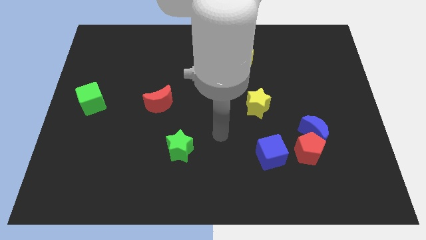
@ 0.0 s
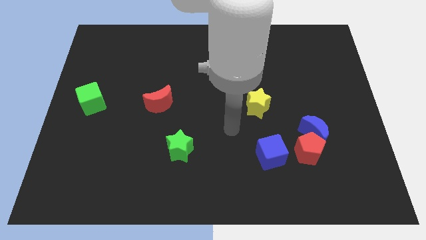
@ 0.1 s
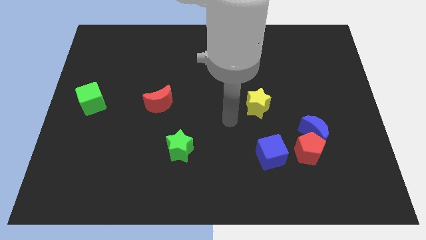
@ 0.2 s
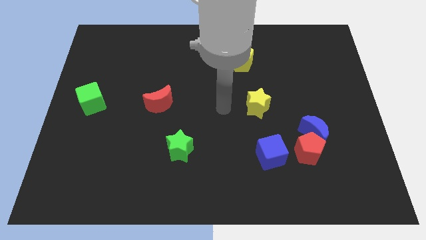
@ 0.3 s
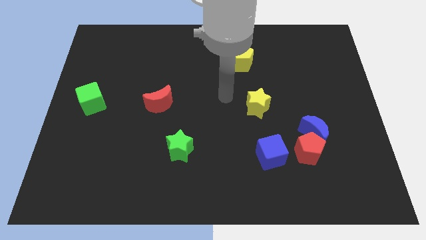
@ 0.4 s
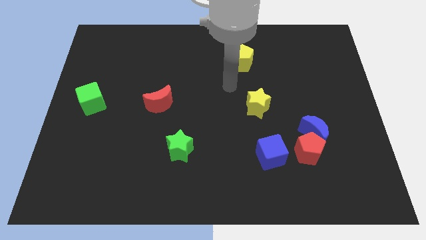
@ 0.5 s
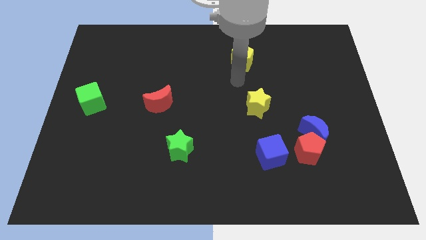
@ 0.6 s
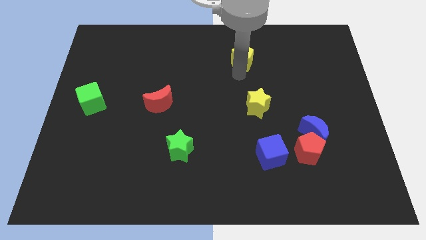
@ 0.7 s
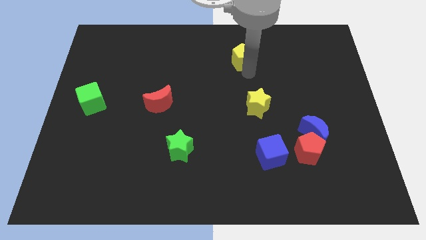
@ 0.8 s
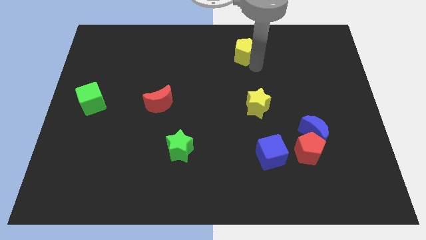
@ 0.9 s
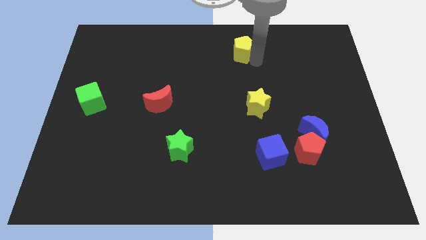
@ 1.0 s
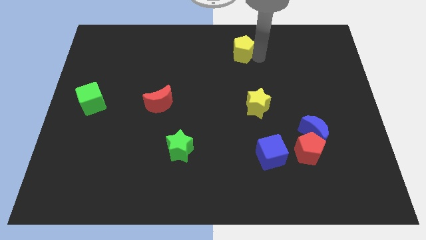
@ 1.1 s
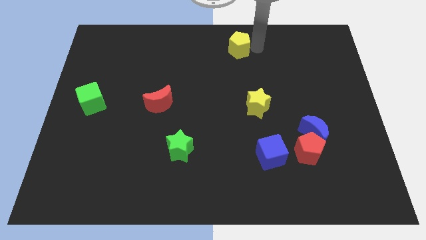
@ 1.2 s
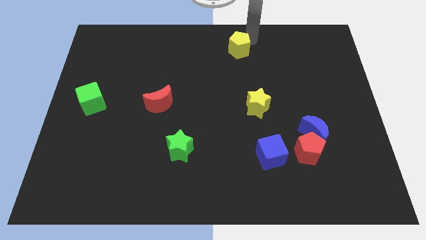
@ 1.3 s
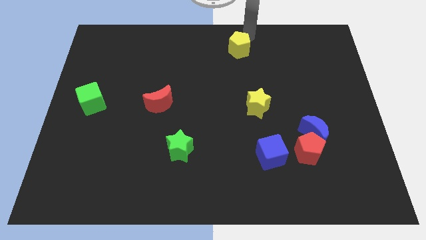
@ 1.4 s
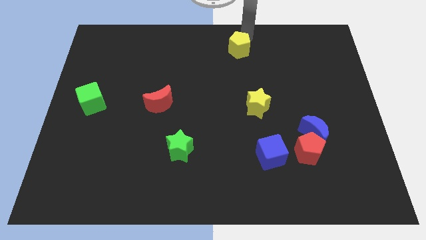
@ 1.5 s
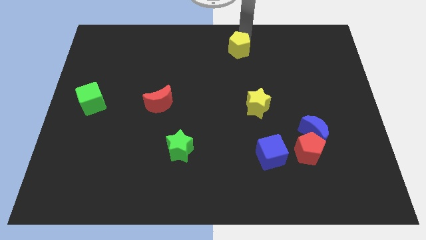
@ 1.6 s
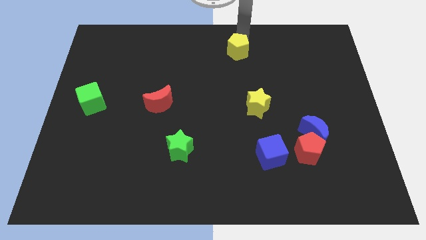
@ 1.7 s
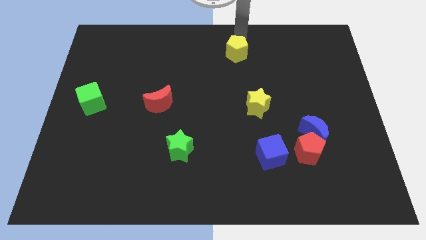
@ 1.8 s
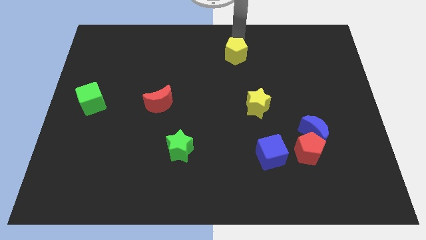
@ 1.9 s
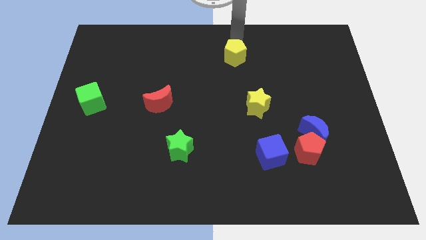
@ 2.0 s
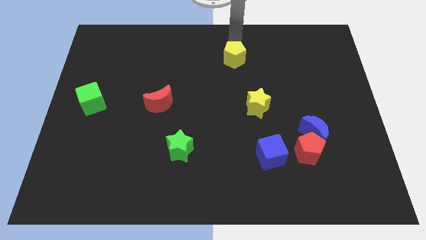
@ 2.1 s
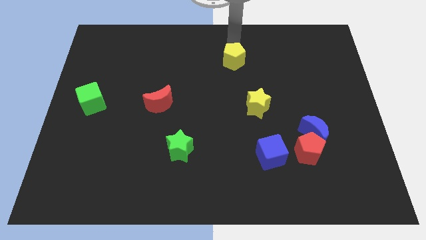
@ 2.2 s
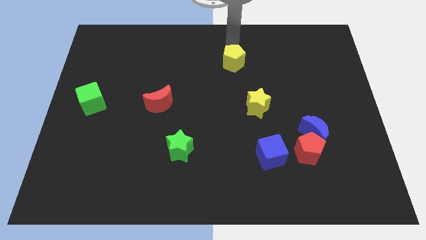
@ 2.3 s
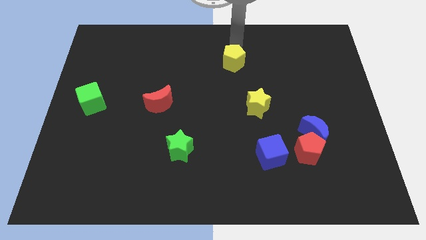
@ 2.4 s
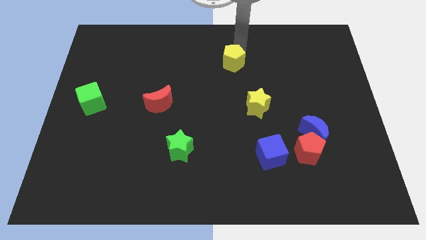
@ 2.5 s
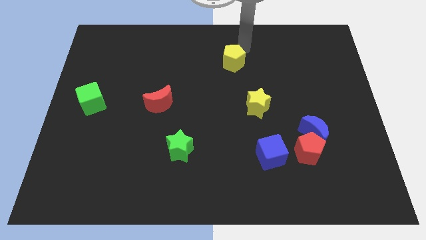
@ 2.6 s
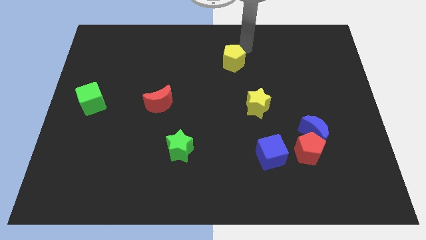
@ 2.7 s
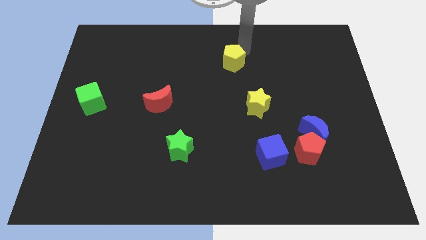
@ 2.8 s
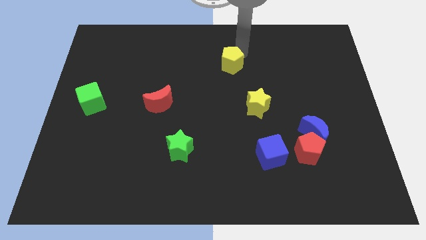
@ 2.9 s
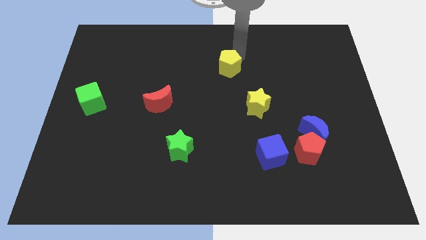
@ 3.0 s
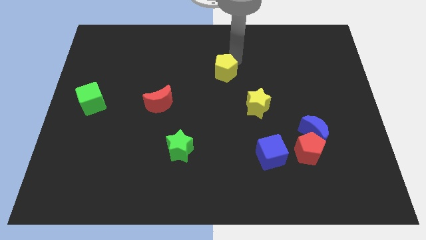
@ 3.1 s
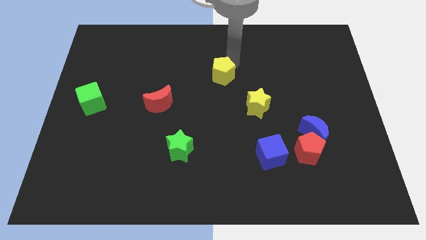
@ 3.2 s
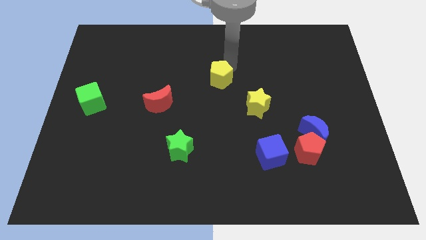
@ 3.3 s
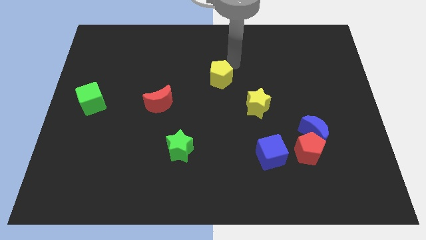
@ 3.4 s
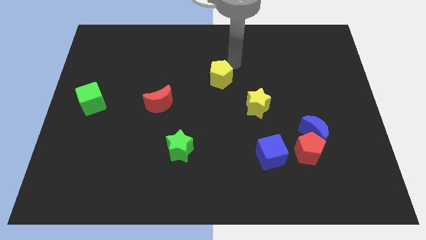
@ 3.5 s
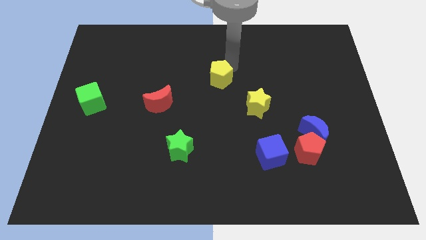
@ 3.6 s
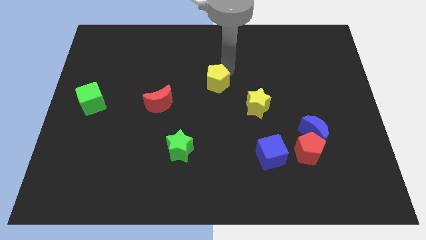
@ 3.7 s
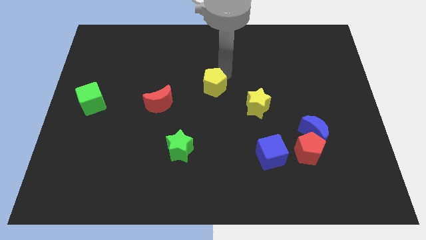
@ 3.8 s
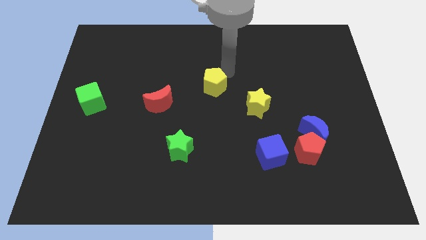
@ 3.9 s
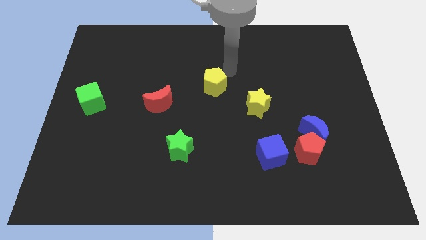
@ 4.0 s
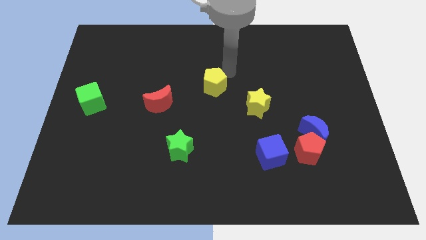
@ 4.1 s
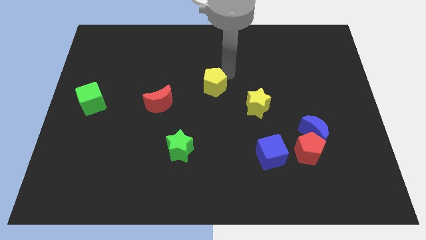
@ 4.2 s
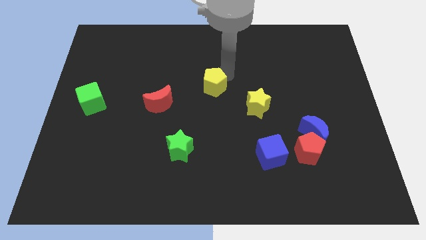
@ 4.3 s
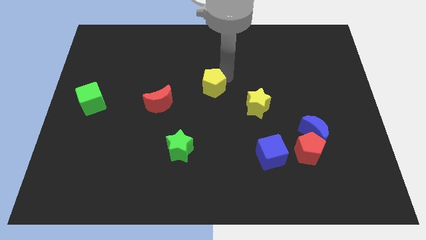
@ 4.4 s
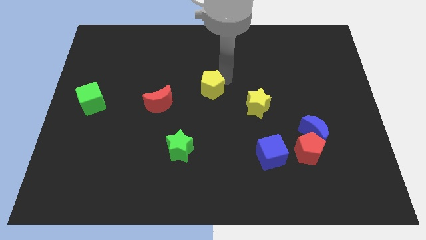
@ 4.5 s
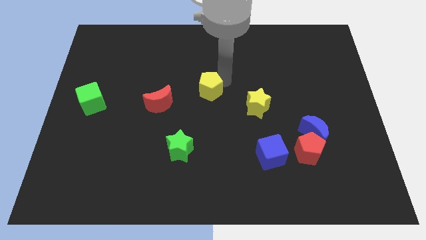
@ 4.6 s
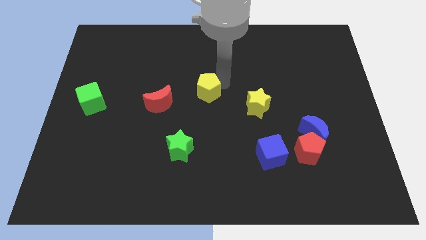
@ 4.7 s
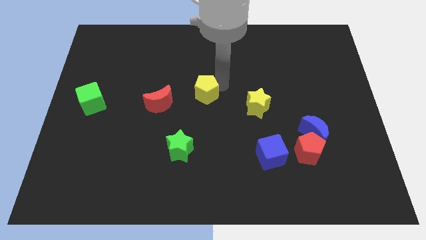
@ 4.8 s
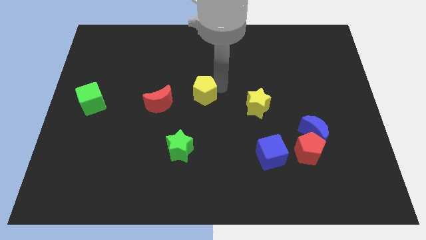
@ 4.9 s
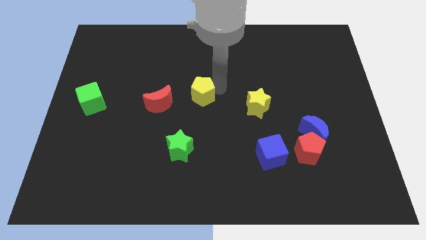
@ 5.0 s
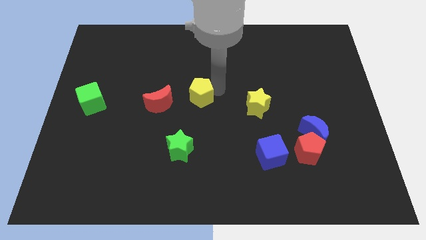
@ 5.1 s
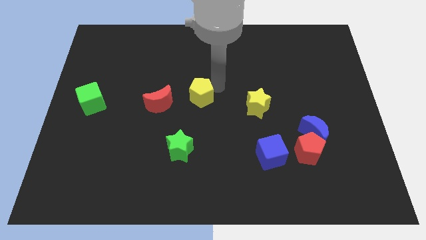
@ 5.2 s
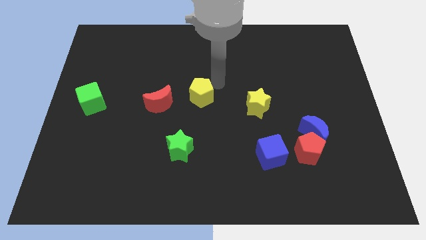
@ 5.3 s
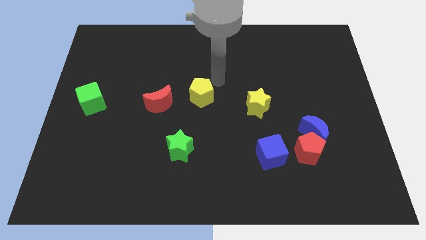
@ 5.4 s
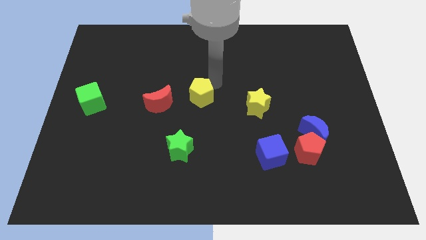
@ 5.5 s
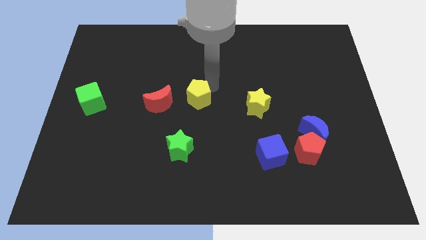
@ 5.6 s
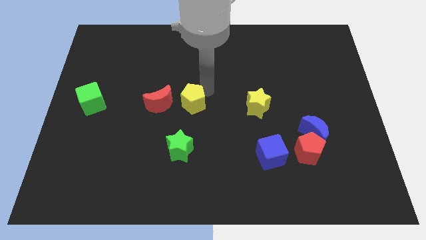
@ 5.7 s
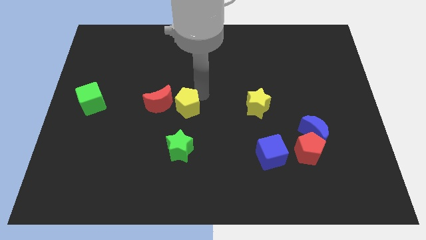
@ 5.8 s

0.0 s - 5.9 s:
slide the yellow pentagon downwards and to the left

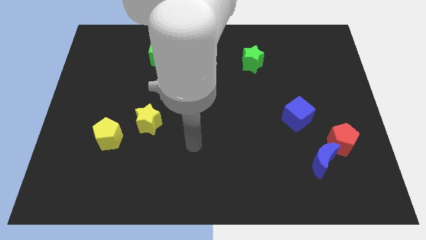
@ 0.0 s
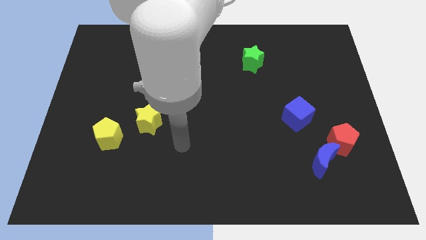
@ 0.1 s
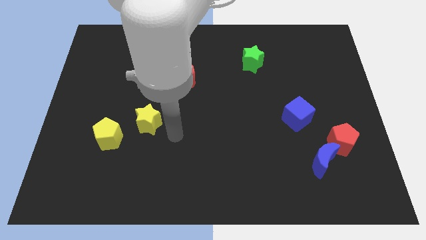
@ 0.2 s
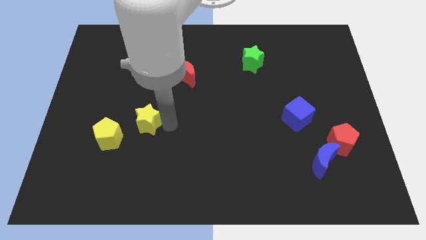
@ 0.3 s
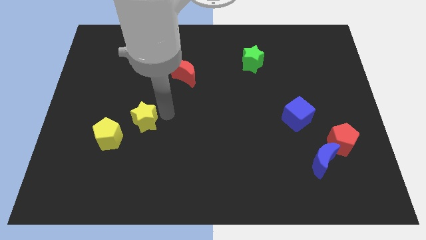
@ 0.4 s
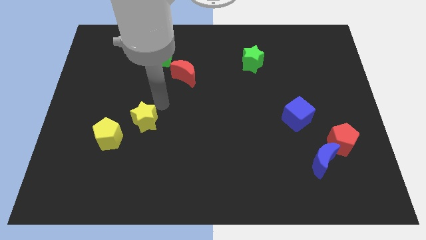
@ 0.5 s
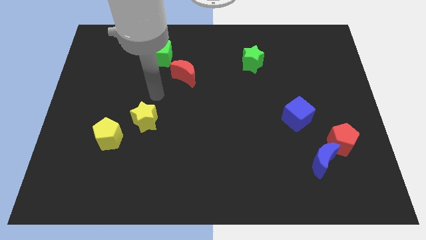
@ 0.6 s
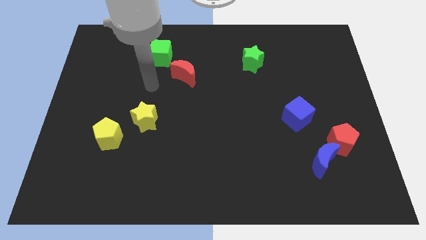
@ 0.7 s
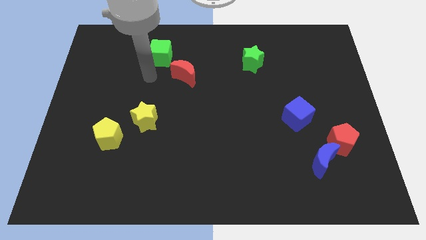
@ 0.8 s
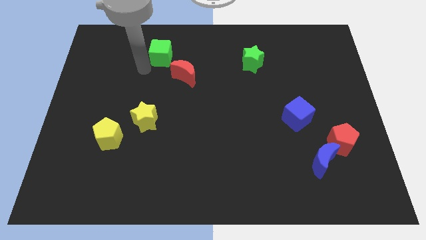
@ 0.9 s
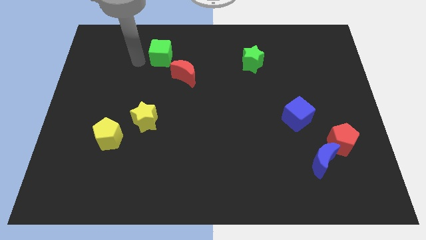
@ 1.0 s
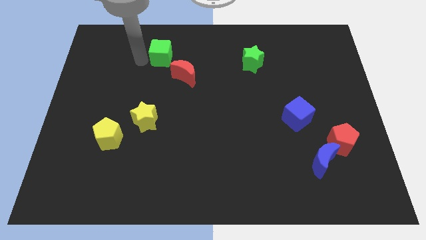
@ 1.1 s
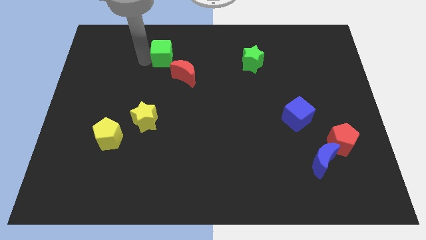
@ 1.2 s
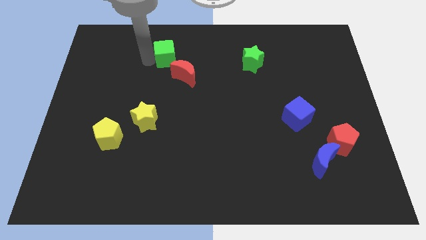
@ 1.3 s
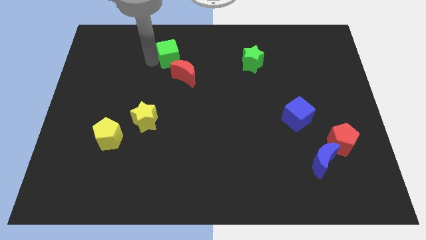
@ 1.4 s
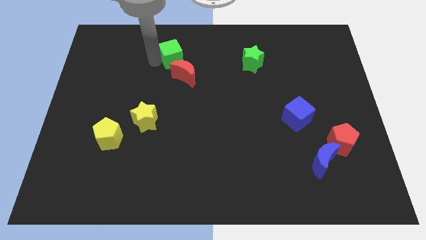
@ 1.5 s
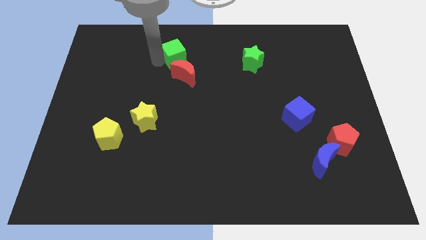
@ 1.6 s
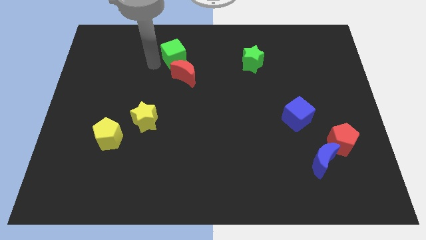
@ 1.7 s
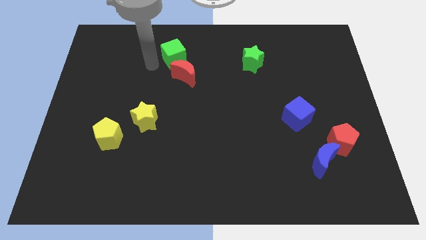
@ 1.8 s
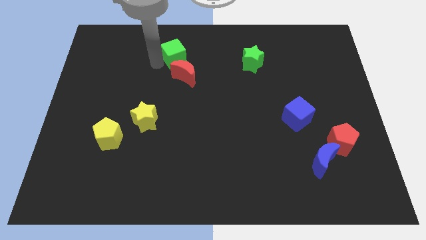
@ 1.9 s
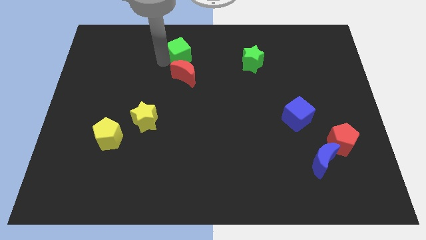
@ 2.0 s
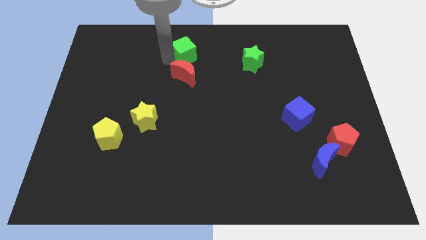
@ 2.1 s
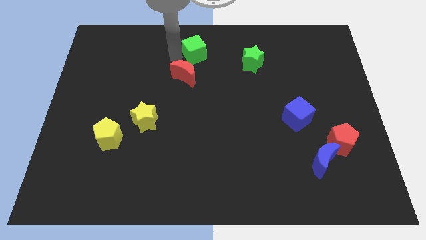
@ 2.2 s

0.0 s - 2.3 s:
push the green cube right a little
